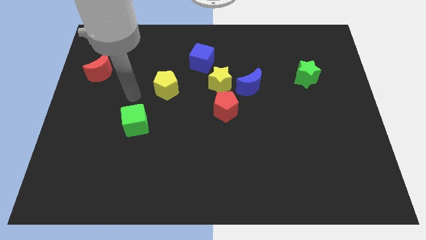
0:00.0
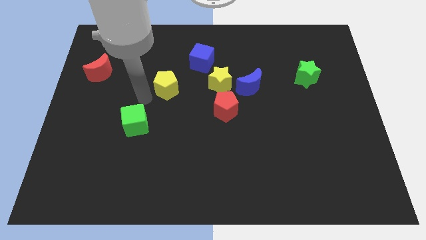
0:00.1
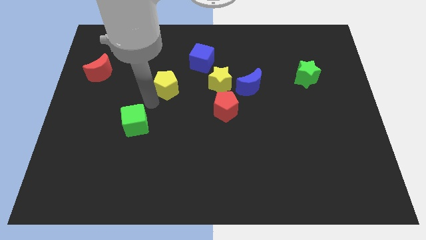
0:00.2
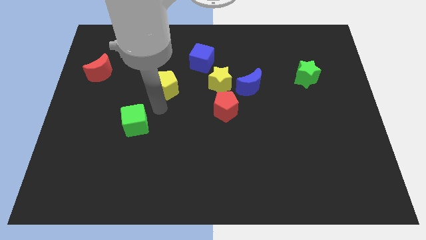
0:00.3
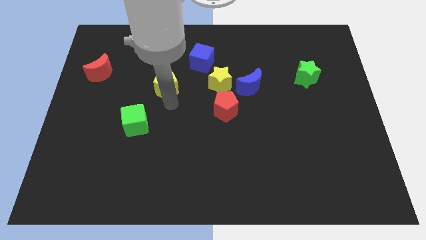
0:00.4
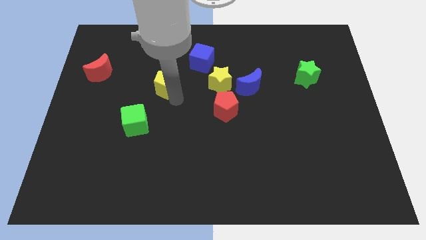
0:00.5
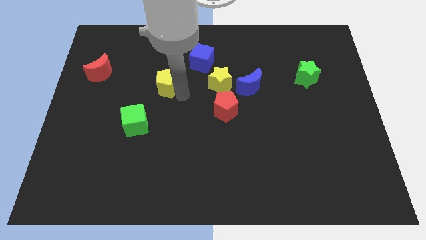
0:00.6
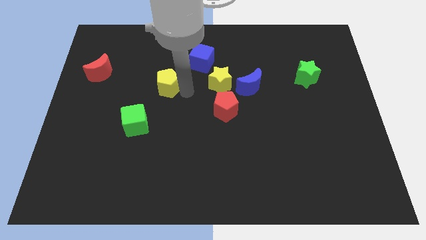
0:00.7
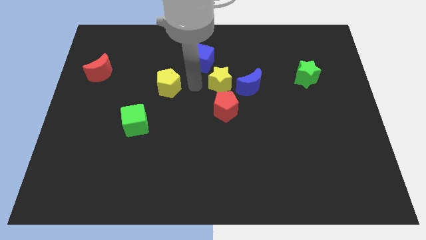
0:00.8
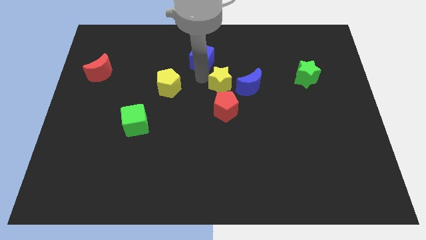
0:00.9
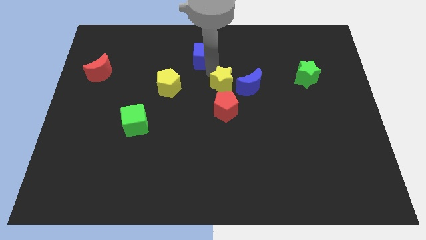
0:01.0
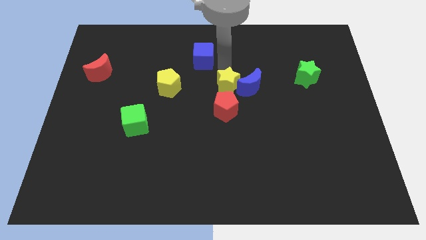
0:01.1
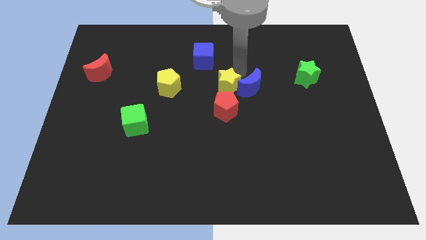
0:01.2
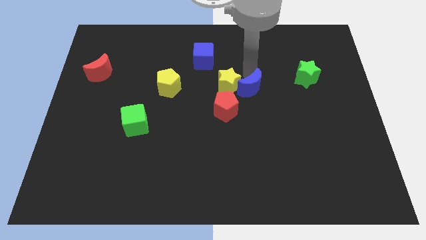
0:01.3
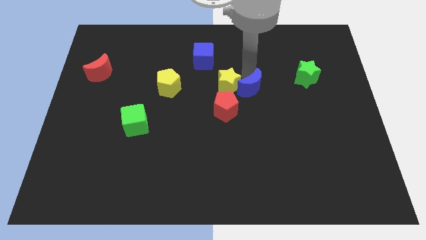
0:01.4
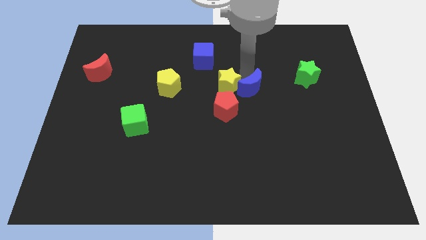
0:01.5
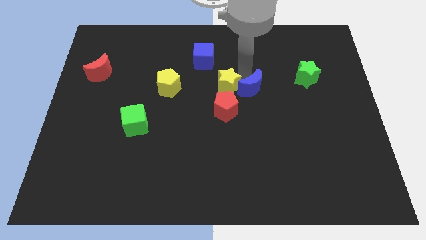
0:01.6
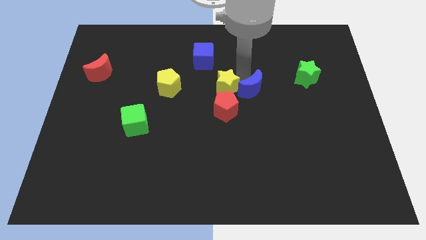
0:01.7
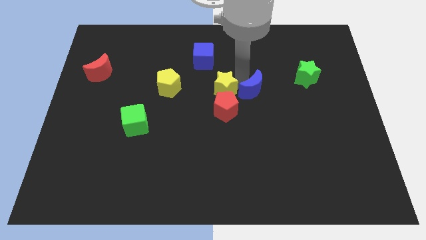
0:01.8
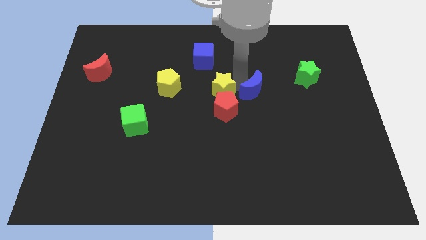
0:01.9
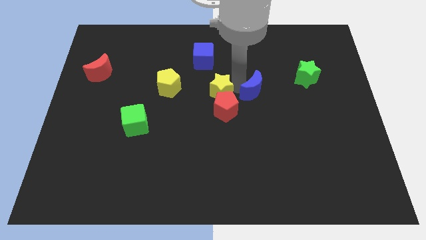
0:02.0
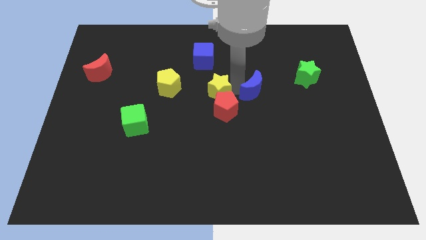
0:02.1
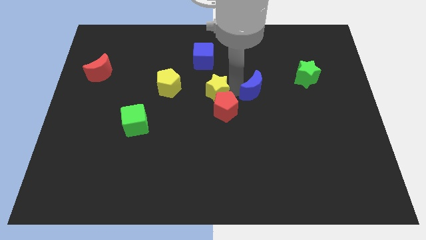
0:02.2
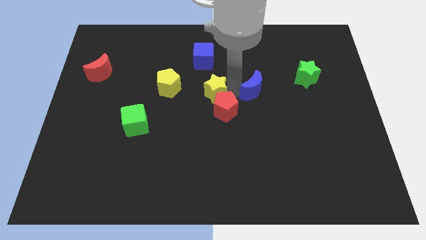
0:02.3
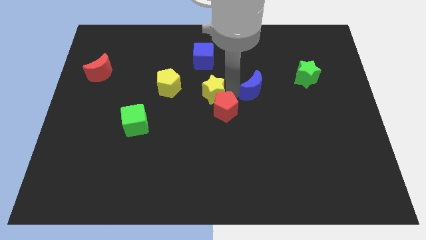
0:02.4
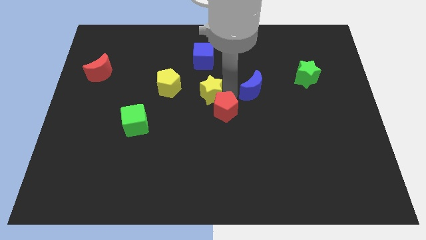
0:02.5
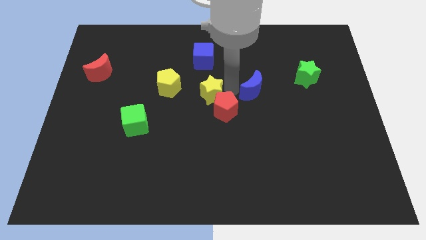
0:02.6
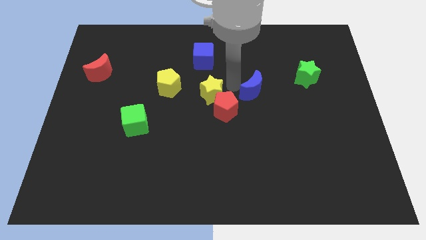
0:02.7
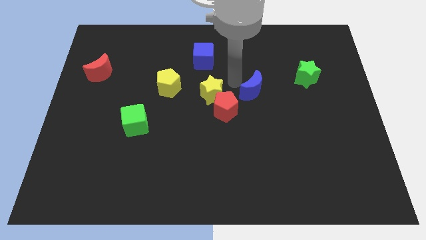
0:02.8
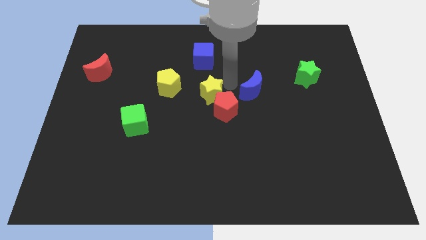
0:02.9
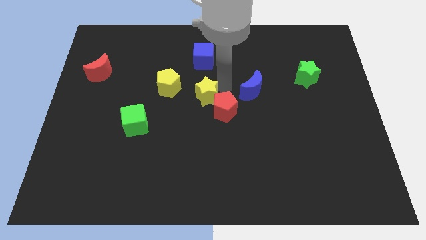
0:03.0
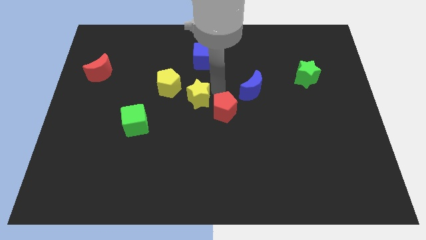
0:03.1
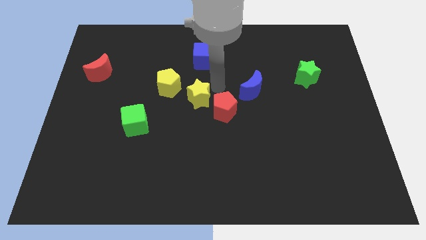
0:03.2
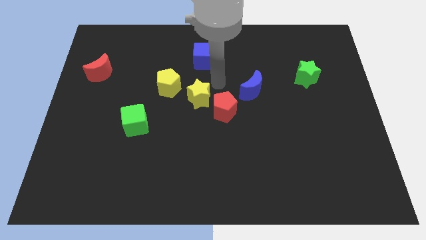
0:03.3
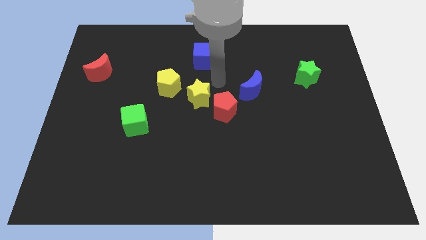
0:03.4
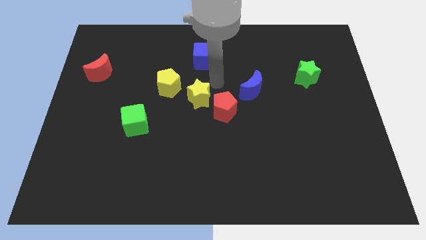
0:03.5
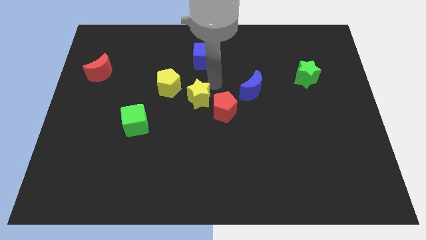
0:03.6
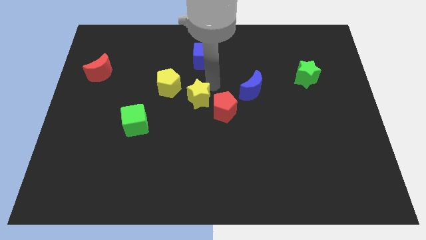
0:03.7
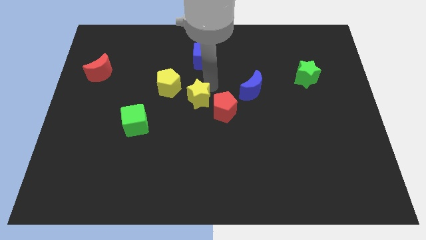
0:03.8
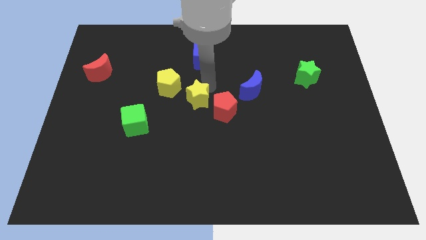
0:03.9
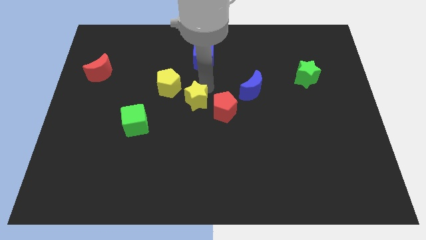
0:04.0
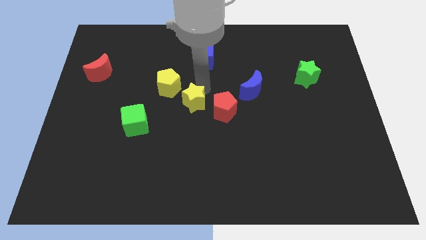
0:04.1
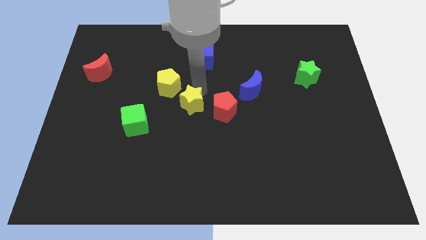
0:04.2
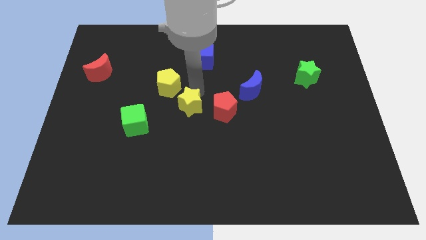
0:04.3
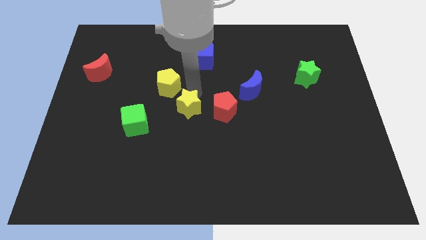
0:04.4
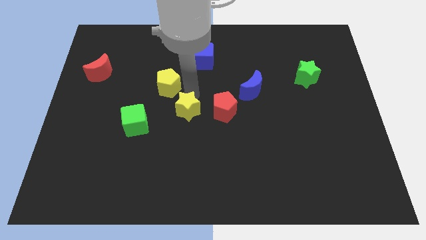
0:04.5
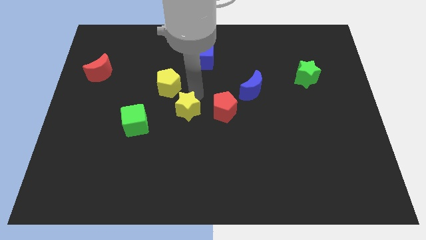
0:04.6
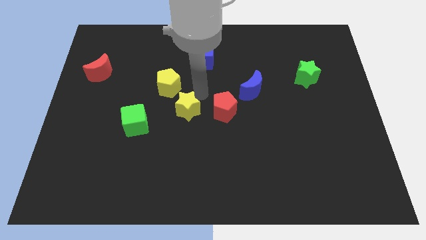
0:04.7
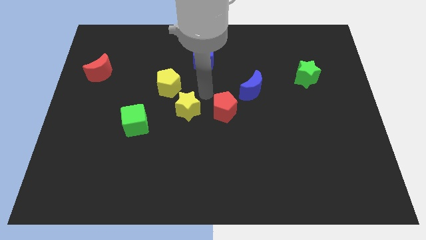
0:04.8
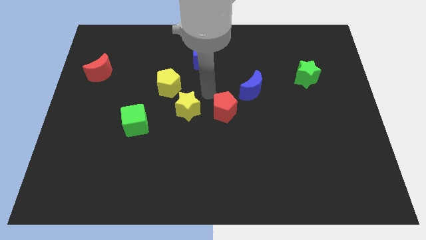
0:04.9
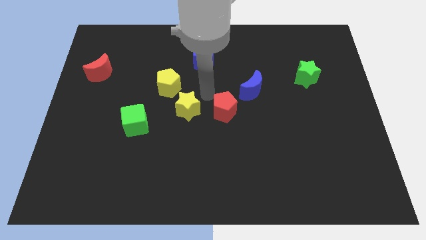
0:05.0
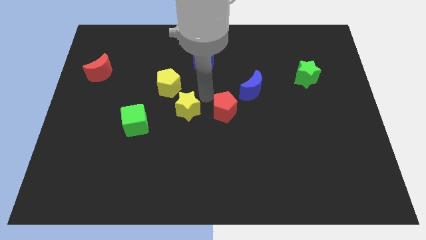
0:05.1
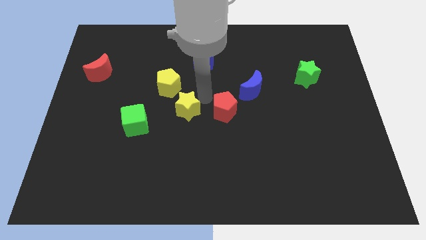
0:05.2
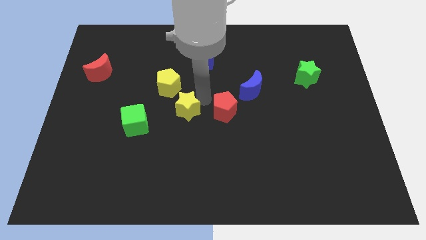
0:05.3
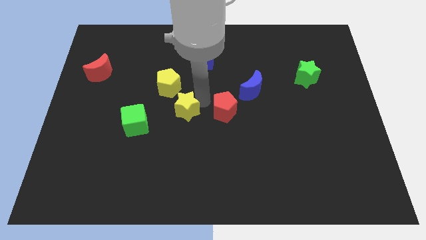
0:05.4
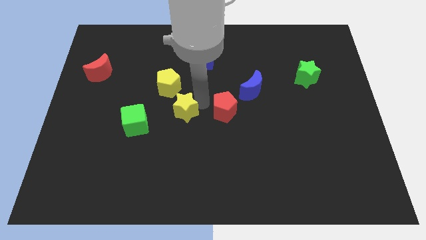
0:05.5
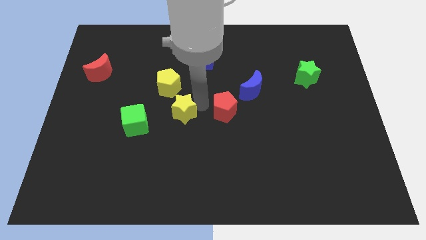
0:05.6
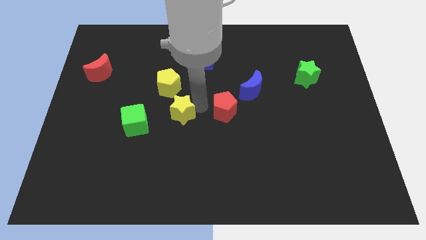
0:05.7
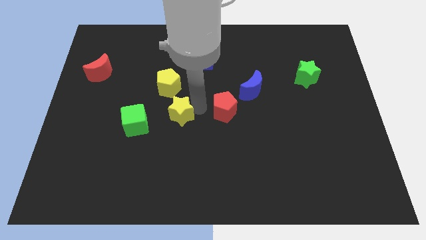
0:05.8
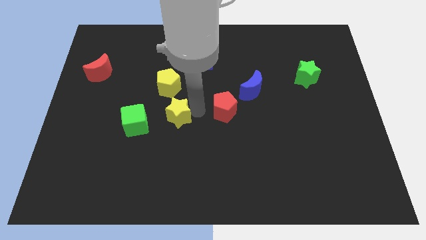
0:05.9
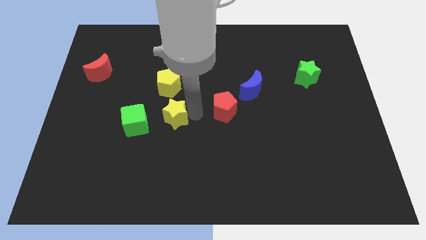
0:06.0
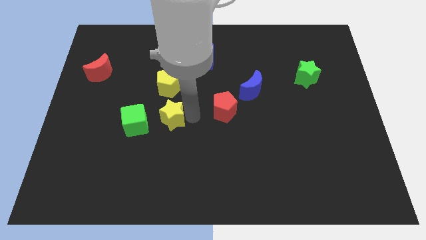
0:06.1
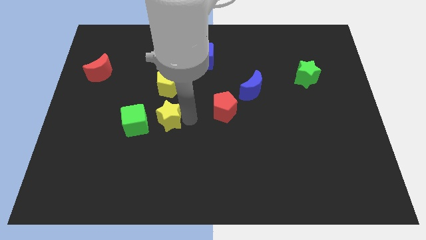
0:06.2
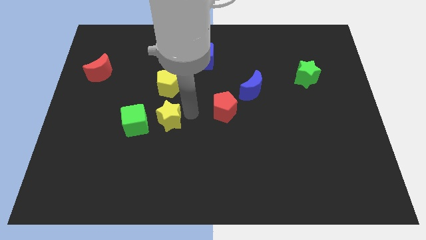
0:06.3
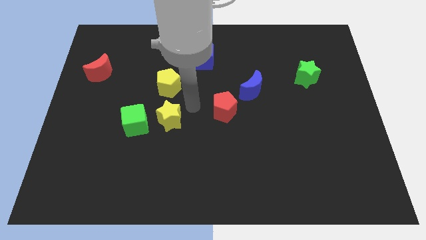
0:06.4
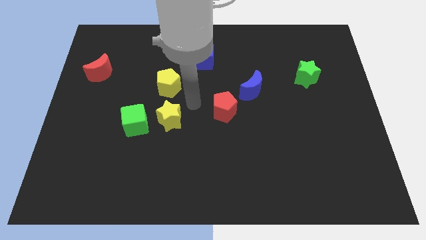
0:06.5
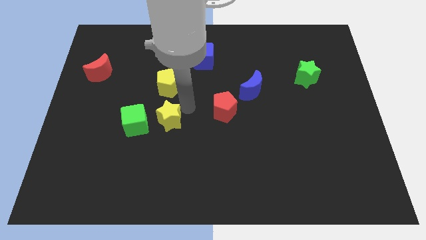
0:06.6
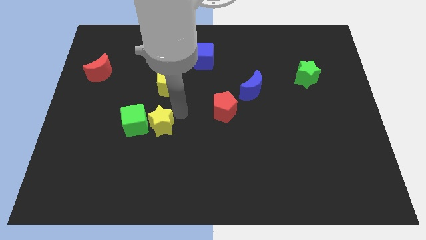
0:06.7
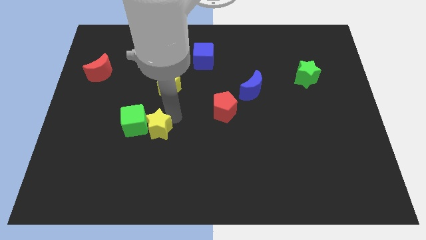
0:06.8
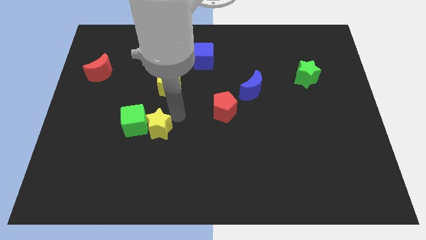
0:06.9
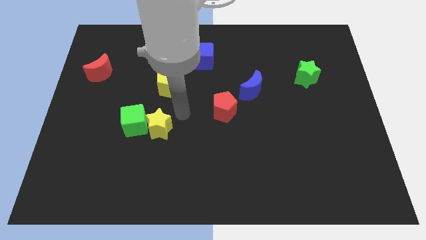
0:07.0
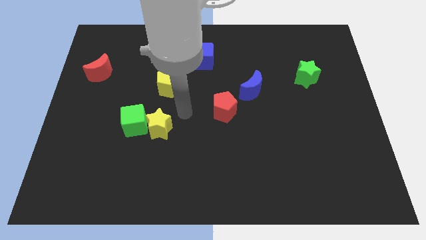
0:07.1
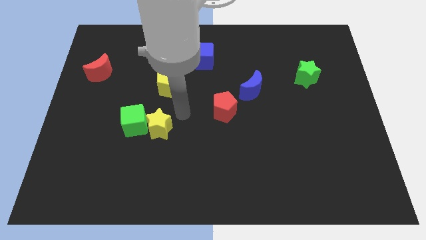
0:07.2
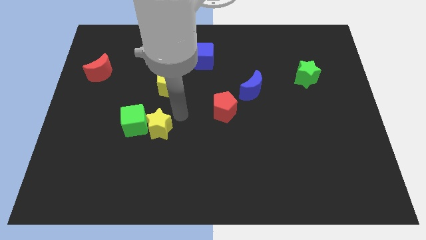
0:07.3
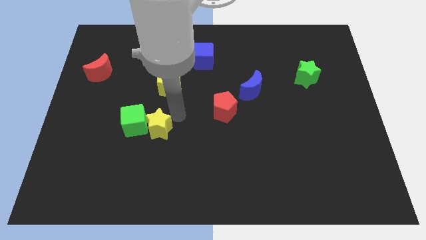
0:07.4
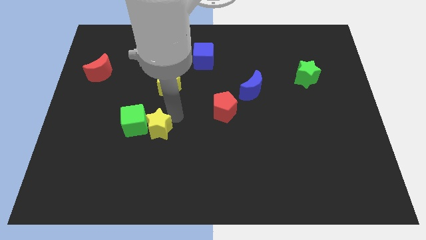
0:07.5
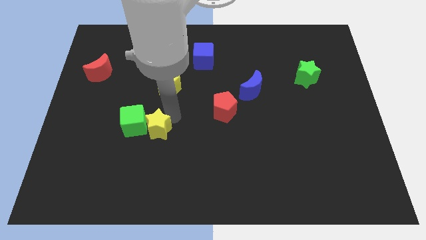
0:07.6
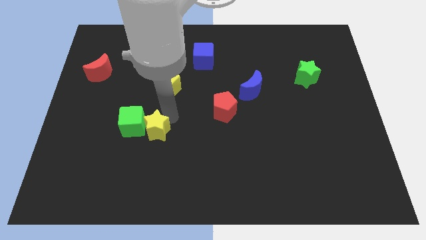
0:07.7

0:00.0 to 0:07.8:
move the yellow star downwards and left

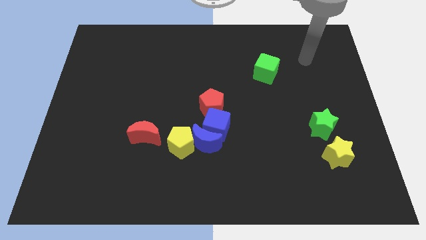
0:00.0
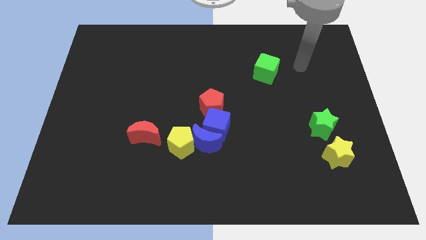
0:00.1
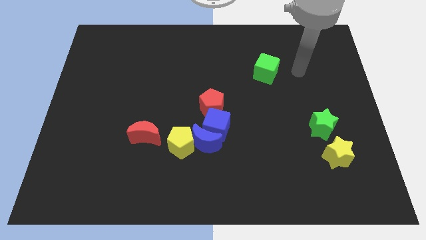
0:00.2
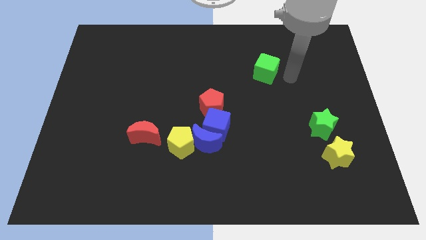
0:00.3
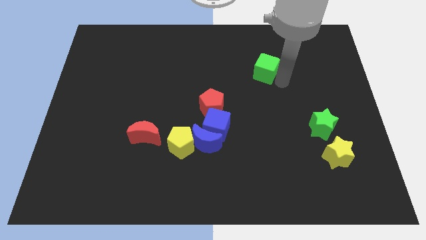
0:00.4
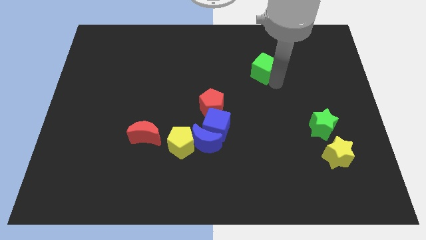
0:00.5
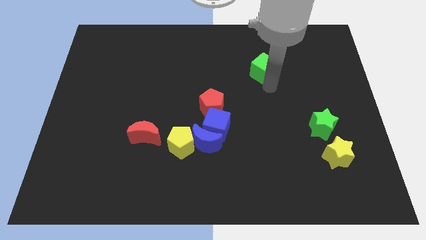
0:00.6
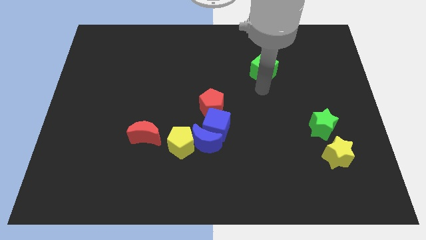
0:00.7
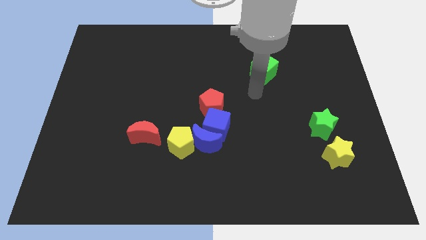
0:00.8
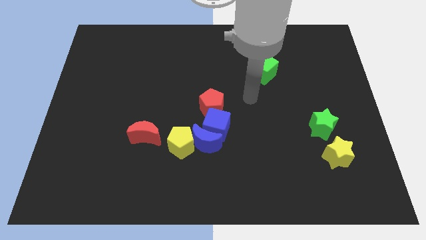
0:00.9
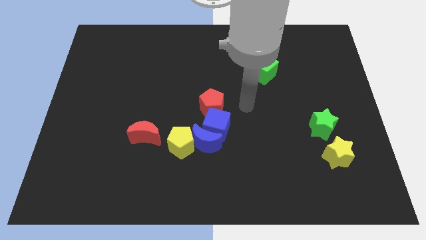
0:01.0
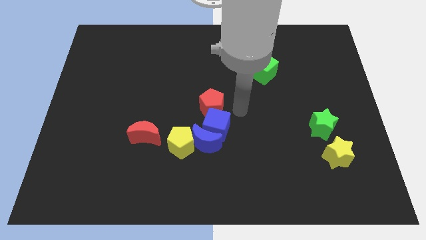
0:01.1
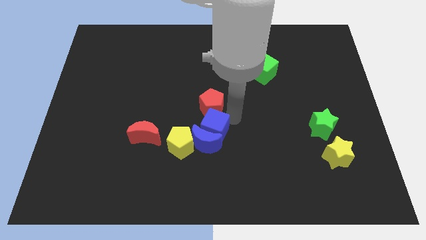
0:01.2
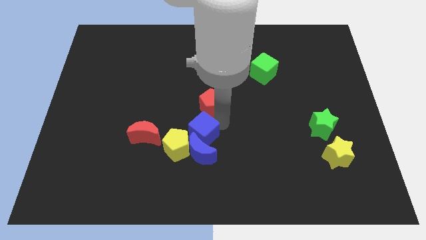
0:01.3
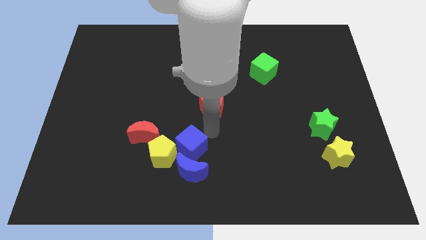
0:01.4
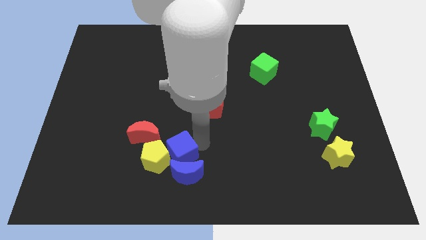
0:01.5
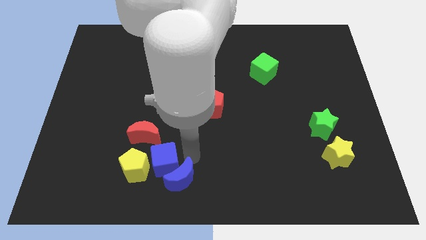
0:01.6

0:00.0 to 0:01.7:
slightly push the yellow pentagon left
